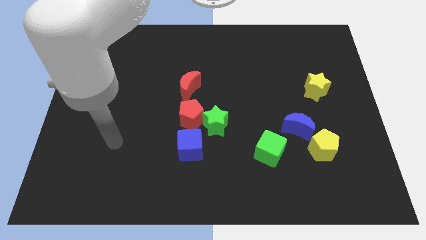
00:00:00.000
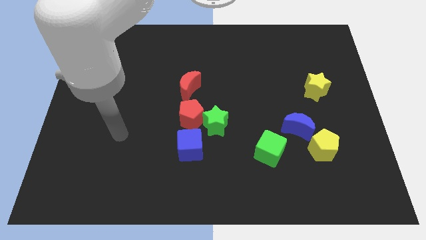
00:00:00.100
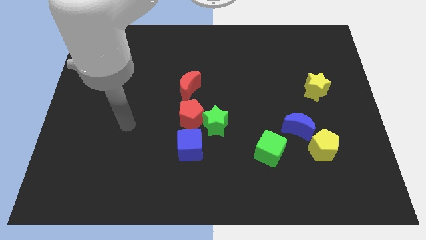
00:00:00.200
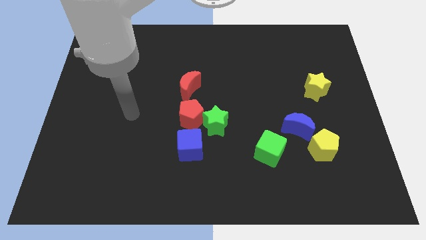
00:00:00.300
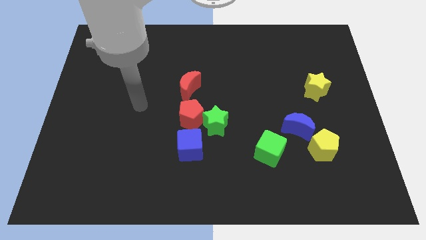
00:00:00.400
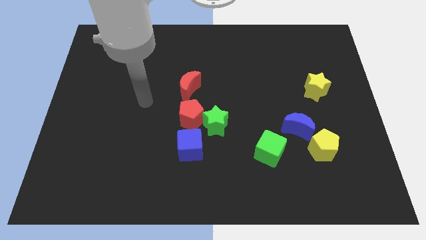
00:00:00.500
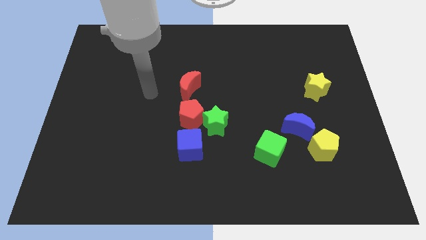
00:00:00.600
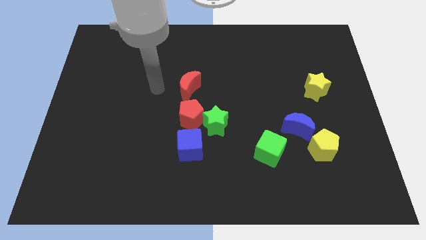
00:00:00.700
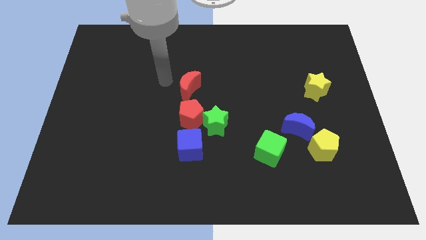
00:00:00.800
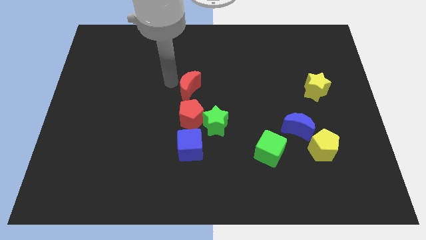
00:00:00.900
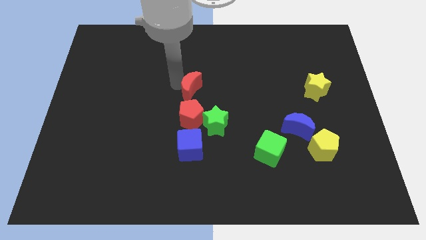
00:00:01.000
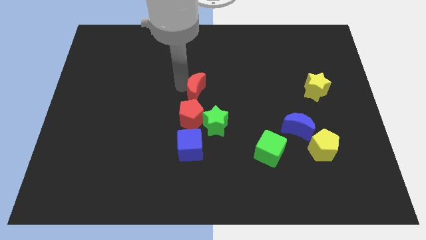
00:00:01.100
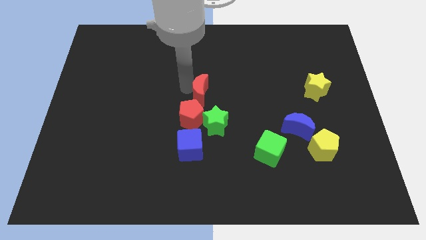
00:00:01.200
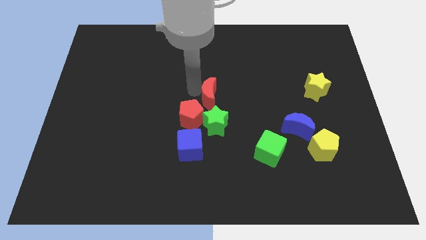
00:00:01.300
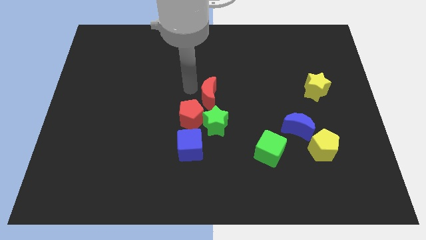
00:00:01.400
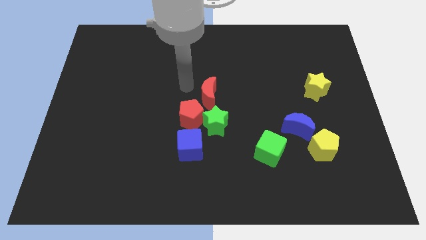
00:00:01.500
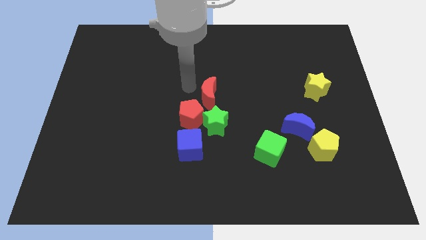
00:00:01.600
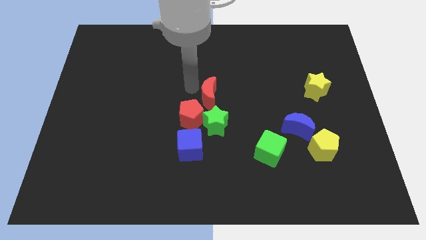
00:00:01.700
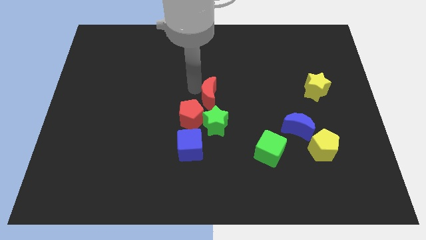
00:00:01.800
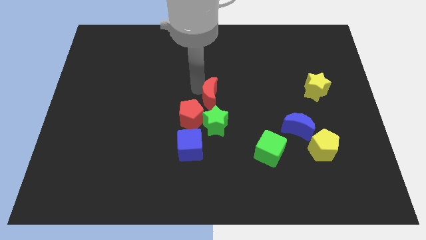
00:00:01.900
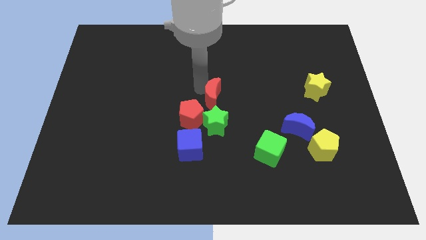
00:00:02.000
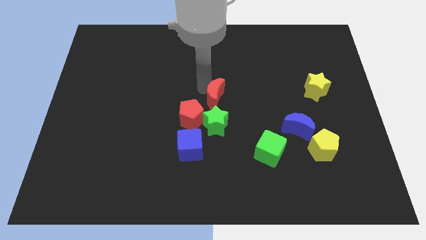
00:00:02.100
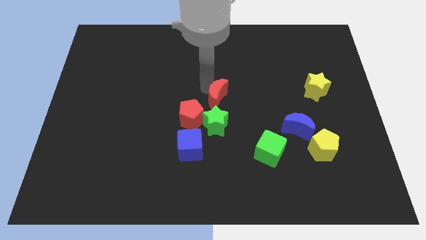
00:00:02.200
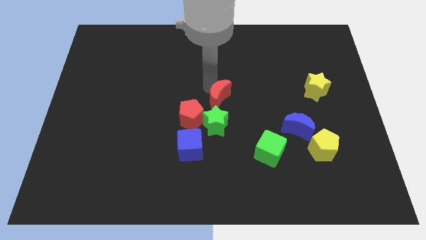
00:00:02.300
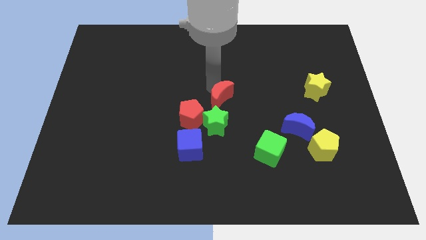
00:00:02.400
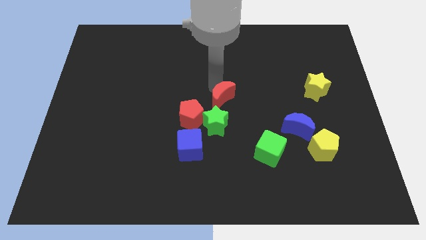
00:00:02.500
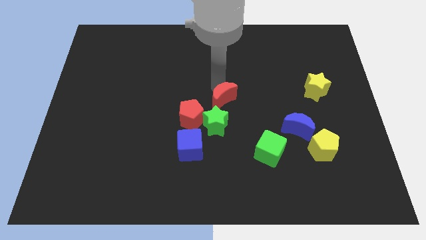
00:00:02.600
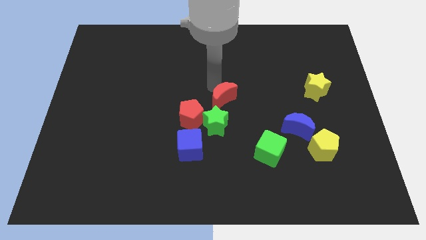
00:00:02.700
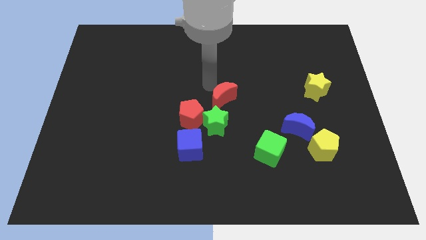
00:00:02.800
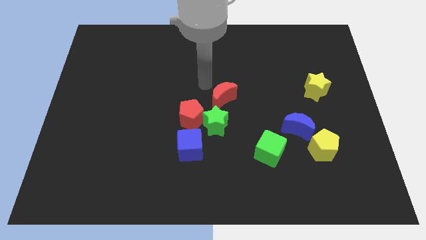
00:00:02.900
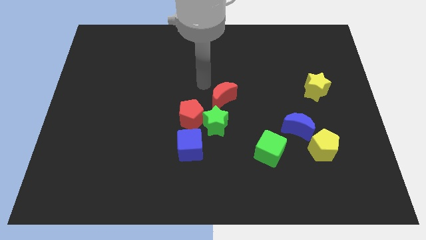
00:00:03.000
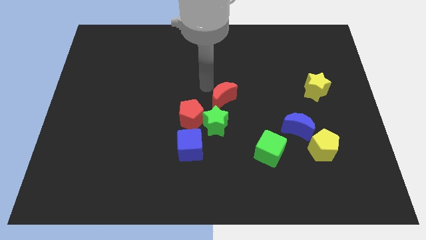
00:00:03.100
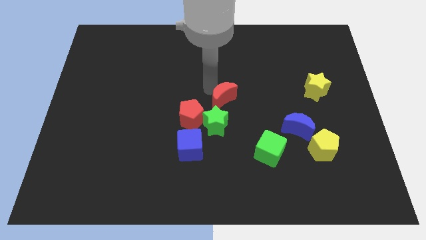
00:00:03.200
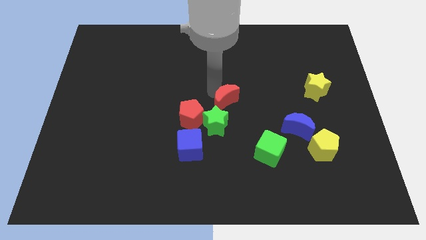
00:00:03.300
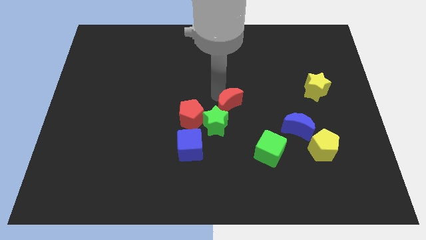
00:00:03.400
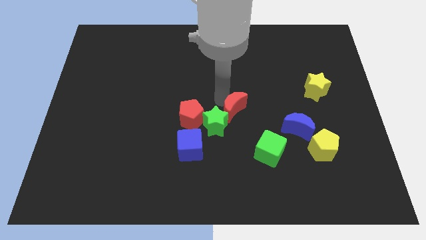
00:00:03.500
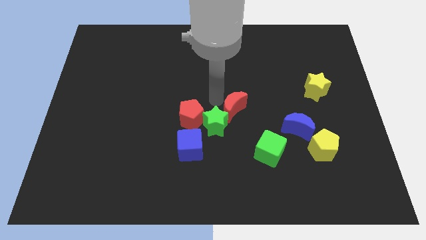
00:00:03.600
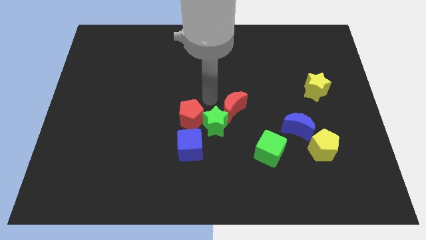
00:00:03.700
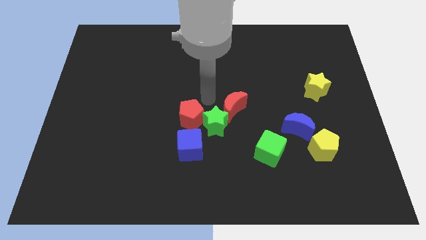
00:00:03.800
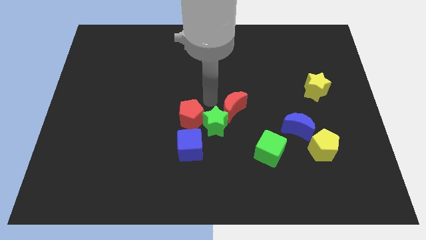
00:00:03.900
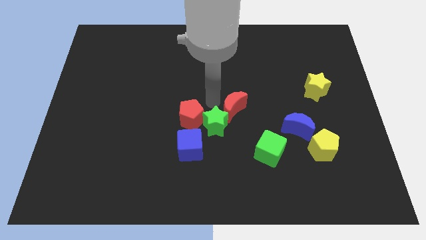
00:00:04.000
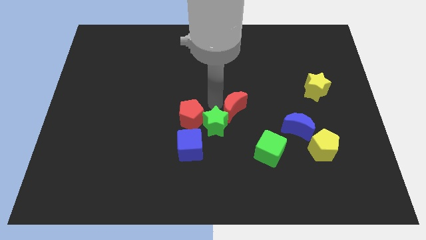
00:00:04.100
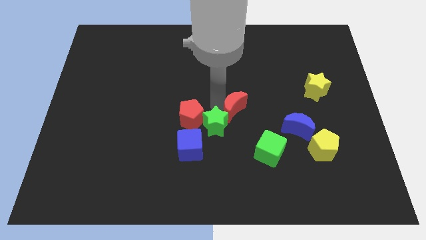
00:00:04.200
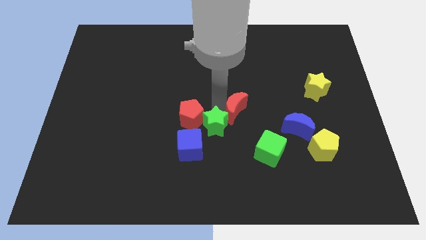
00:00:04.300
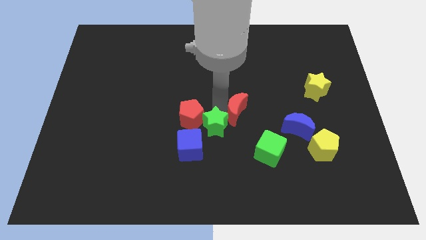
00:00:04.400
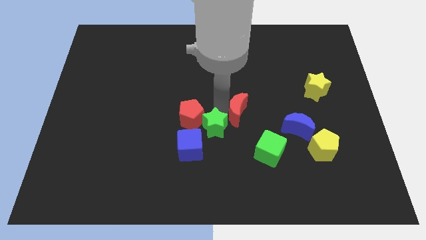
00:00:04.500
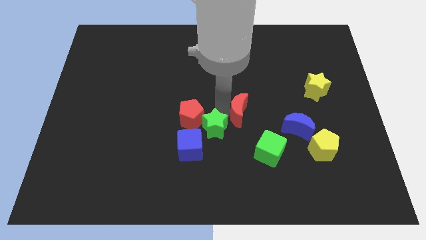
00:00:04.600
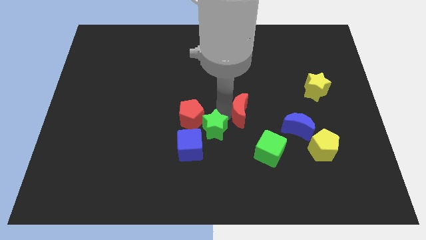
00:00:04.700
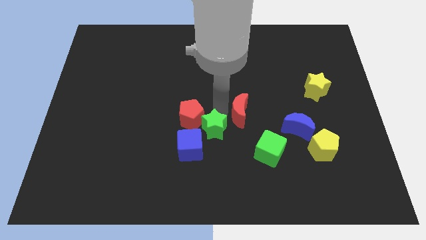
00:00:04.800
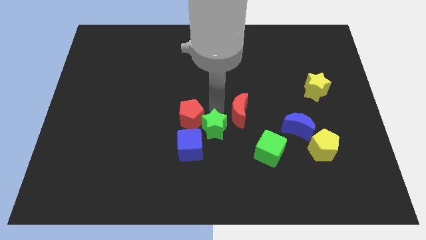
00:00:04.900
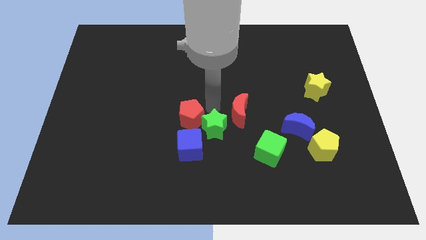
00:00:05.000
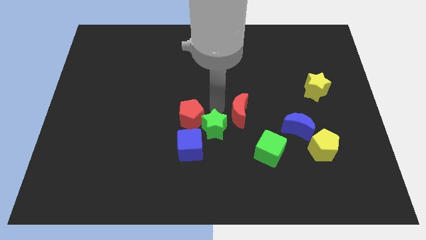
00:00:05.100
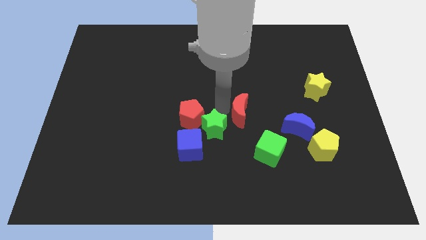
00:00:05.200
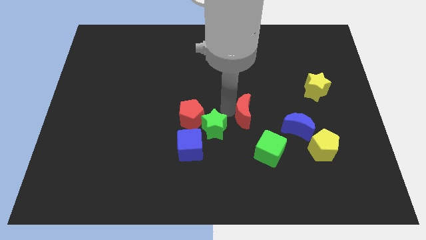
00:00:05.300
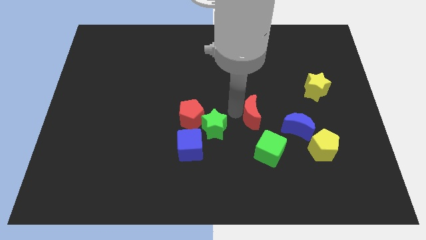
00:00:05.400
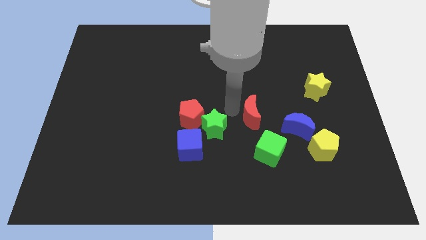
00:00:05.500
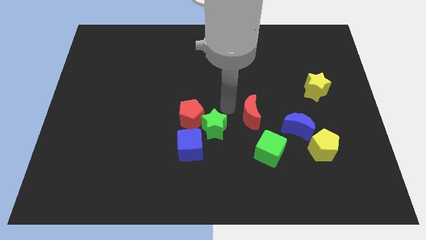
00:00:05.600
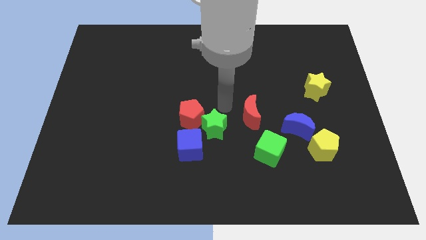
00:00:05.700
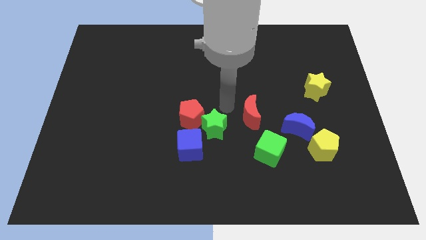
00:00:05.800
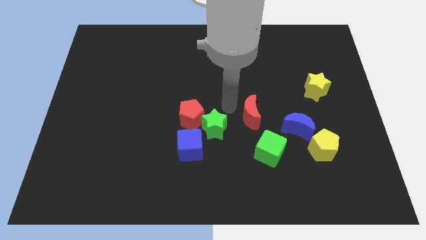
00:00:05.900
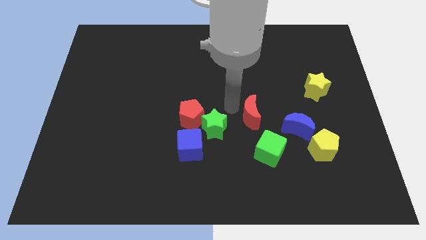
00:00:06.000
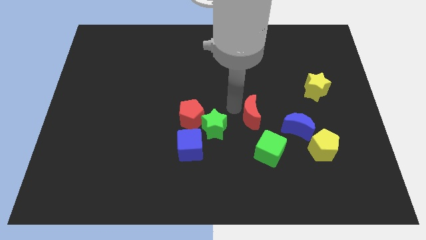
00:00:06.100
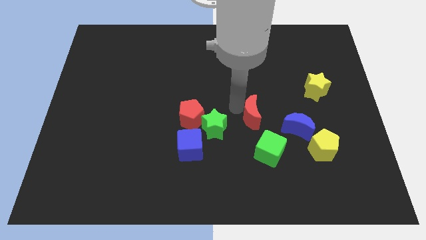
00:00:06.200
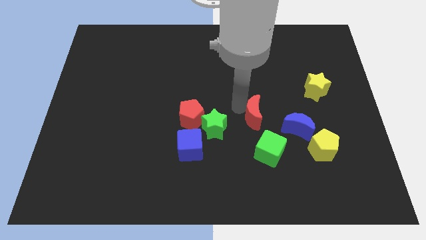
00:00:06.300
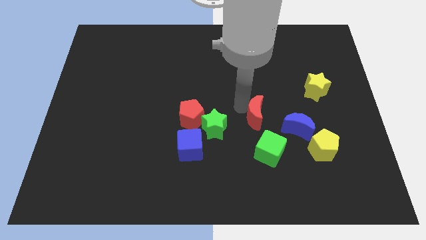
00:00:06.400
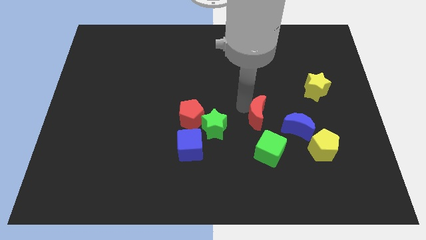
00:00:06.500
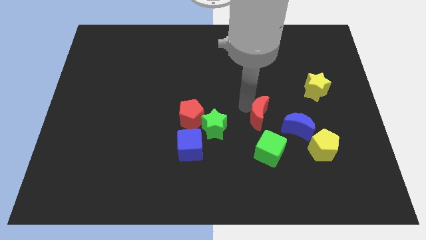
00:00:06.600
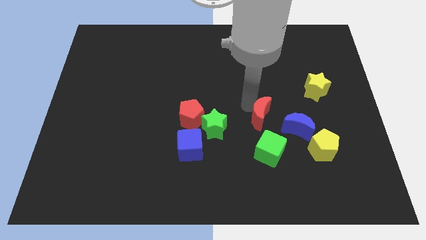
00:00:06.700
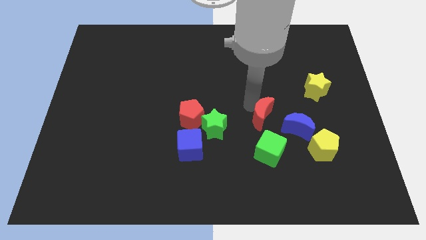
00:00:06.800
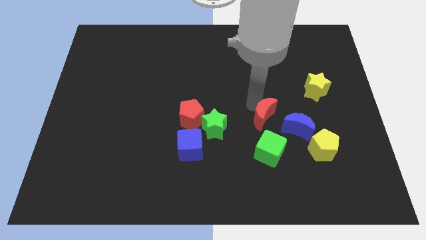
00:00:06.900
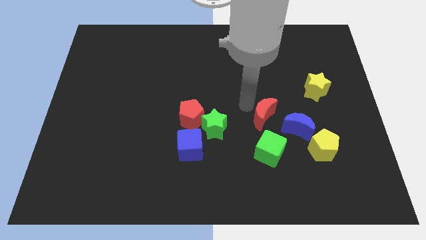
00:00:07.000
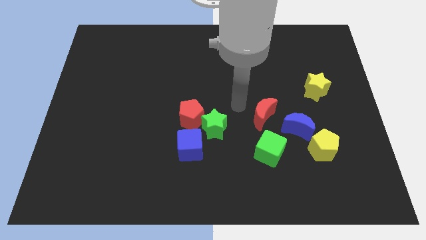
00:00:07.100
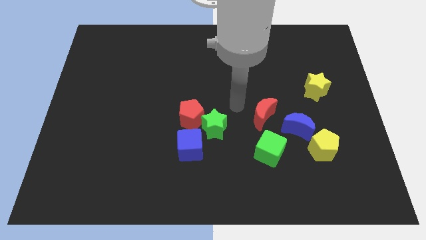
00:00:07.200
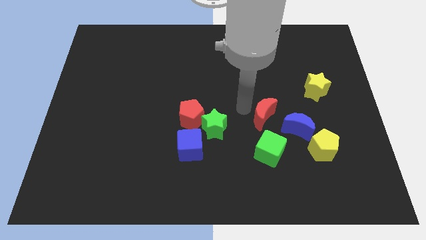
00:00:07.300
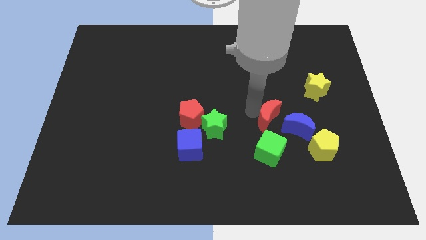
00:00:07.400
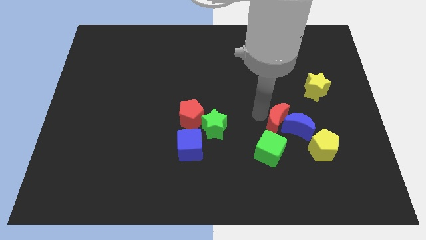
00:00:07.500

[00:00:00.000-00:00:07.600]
put the red moon next to the blue moon

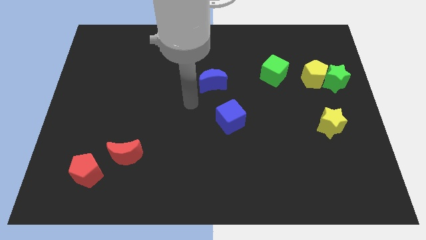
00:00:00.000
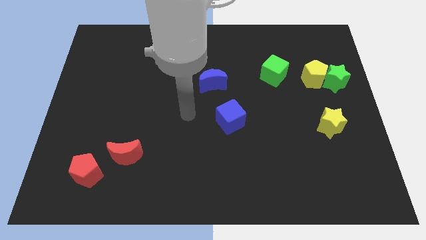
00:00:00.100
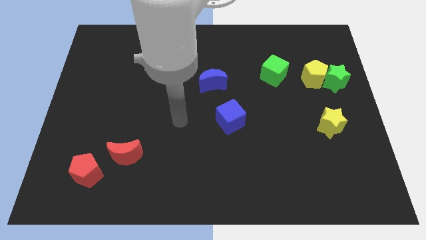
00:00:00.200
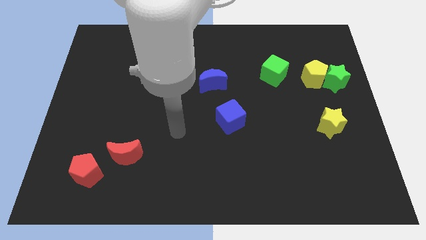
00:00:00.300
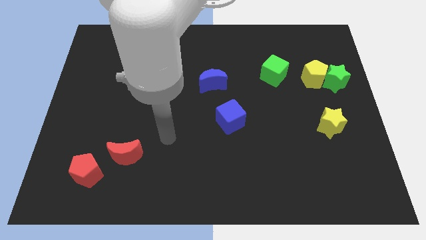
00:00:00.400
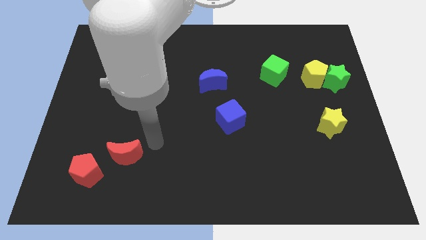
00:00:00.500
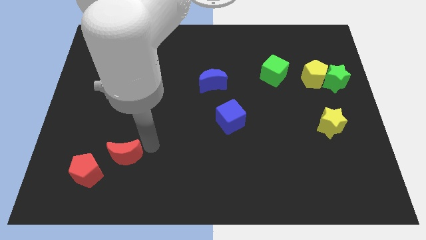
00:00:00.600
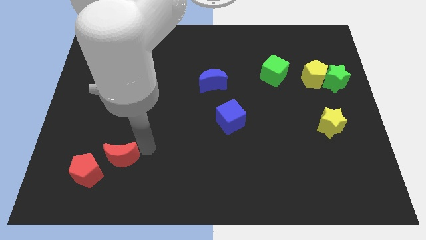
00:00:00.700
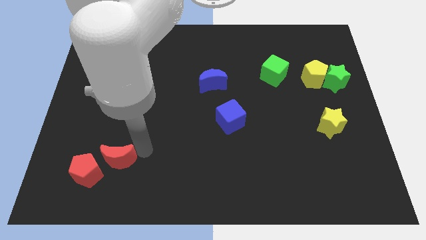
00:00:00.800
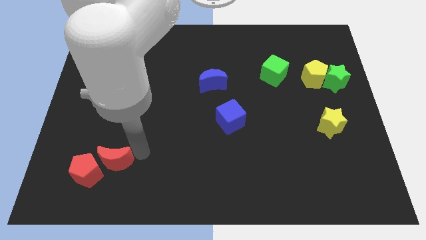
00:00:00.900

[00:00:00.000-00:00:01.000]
move the red moon to the red pentagon
